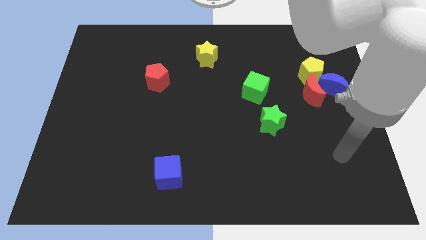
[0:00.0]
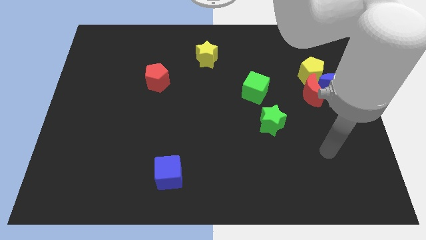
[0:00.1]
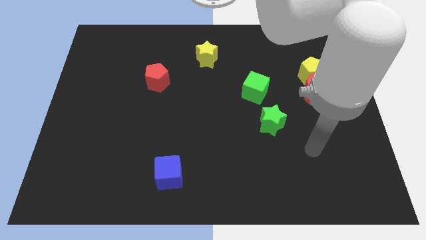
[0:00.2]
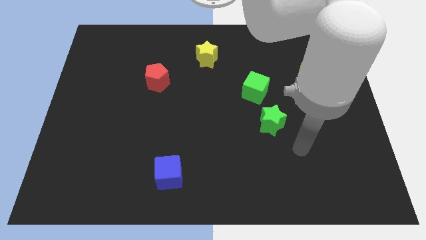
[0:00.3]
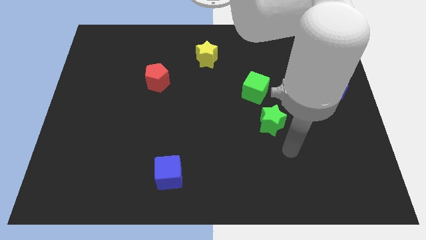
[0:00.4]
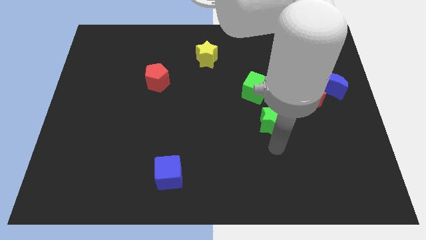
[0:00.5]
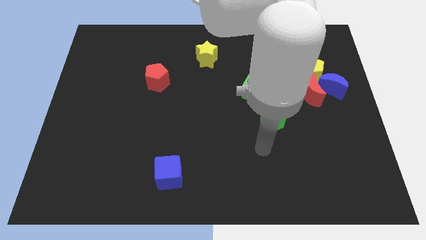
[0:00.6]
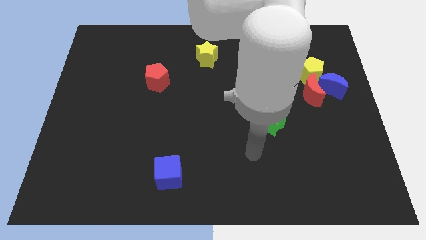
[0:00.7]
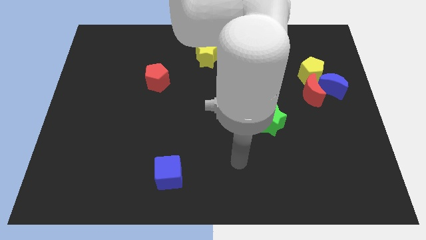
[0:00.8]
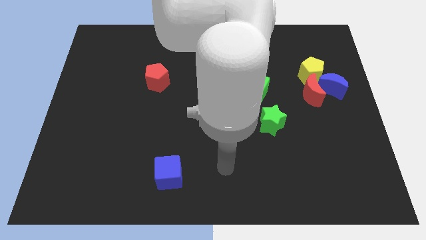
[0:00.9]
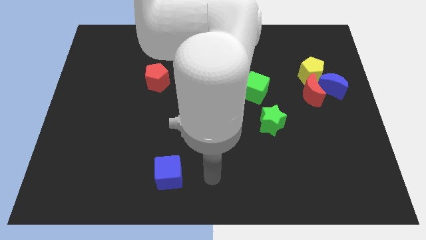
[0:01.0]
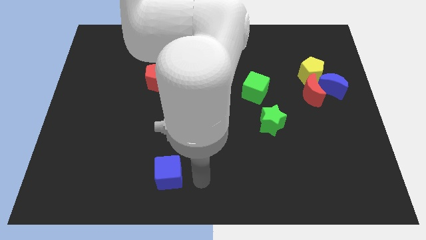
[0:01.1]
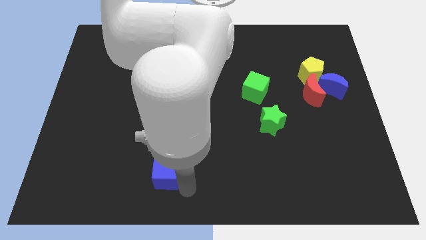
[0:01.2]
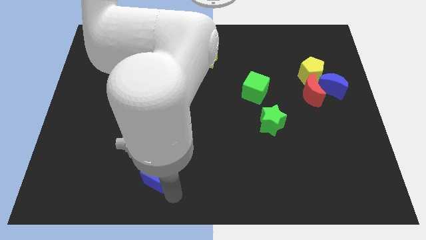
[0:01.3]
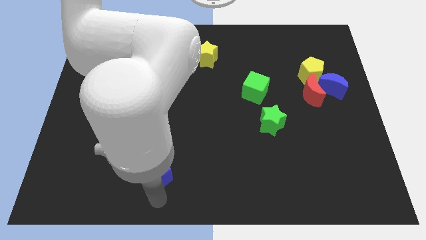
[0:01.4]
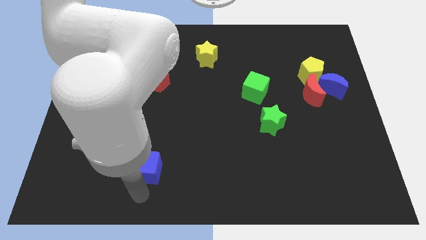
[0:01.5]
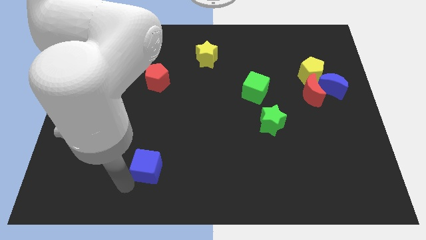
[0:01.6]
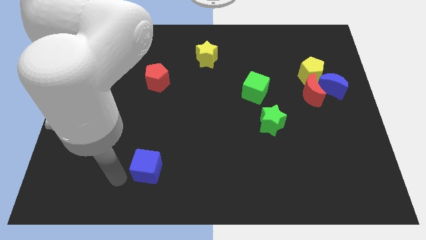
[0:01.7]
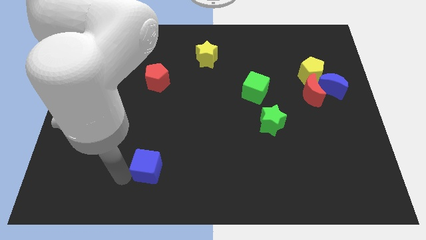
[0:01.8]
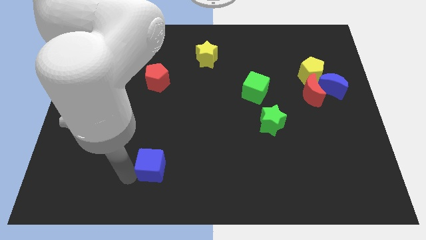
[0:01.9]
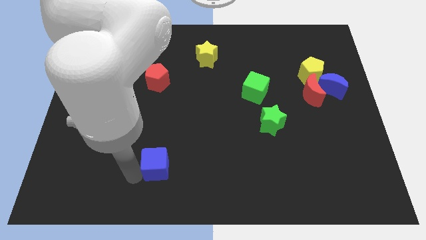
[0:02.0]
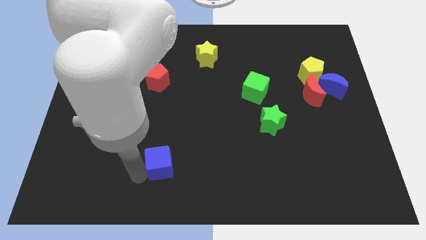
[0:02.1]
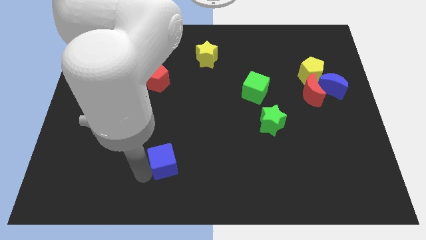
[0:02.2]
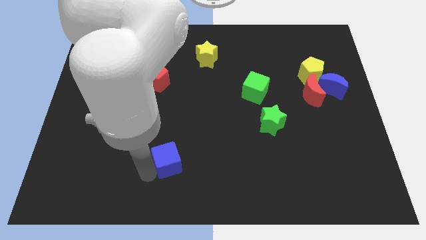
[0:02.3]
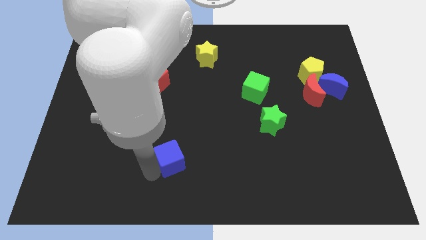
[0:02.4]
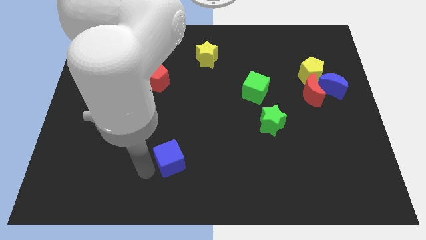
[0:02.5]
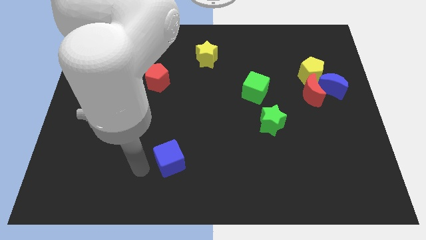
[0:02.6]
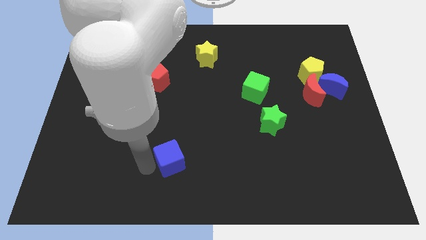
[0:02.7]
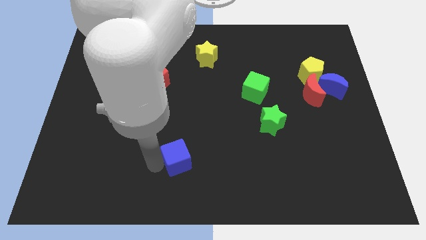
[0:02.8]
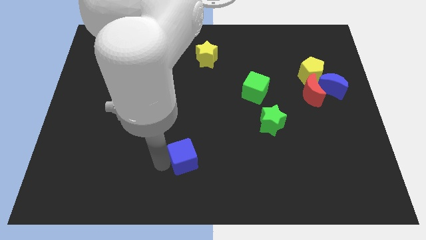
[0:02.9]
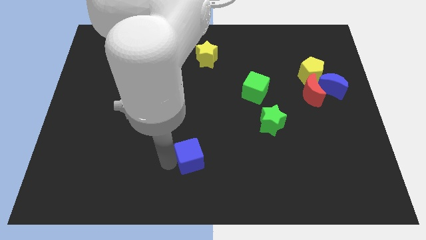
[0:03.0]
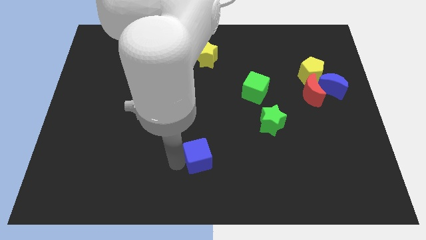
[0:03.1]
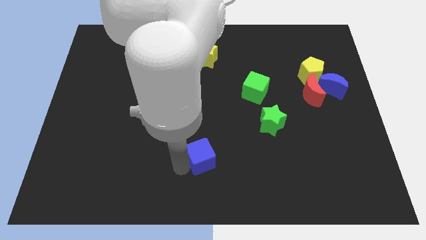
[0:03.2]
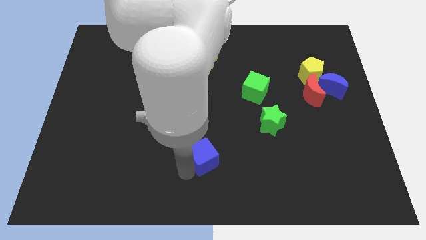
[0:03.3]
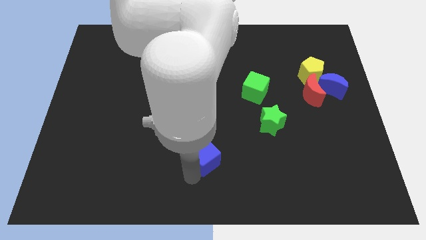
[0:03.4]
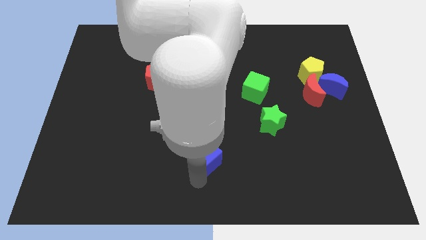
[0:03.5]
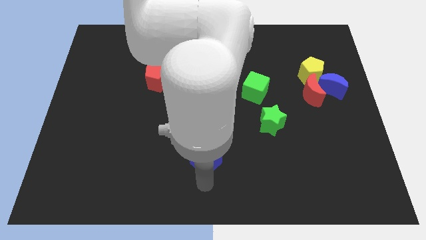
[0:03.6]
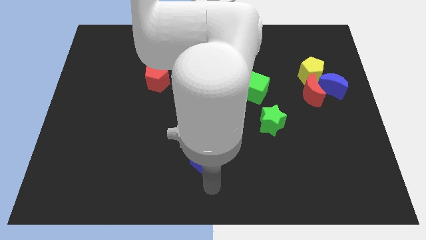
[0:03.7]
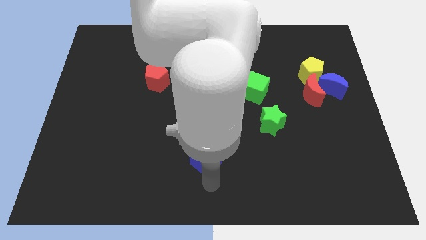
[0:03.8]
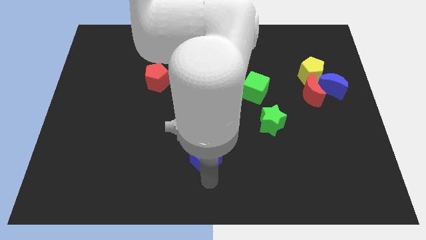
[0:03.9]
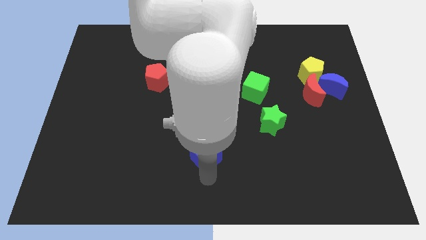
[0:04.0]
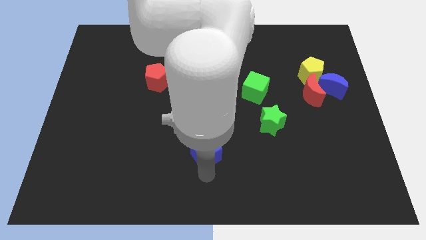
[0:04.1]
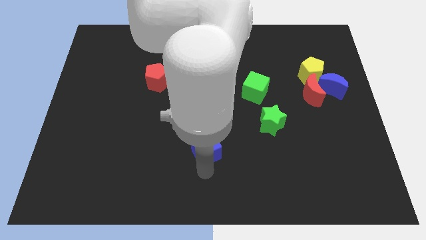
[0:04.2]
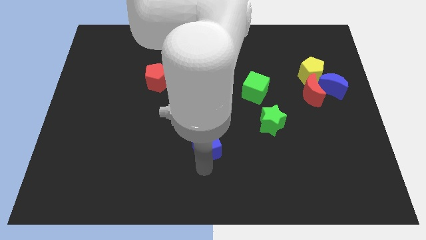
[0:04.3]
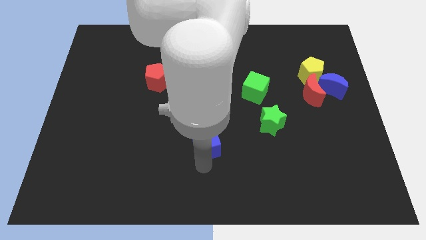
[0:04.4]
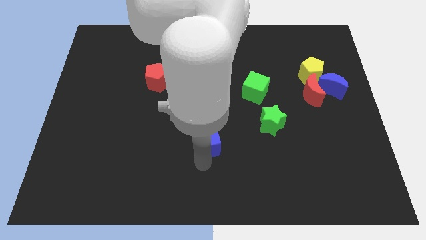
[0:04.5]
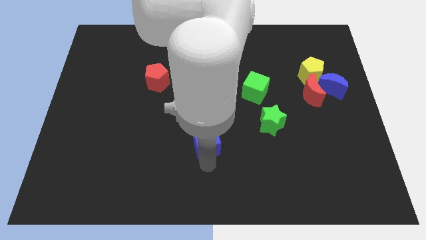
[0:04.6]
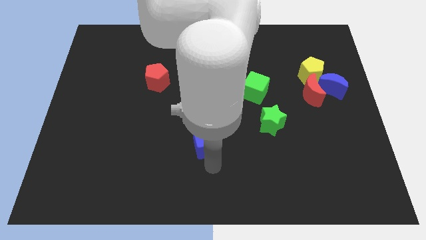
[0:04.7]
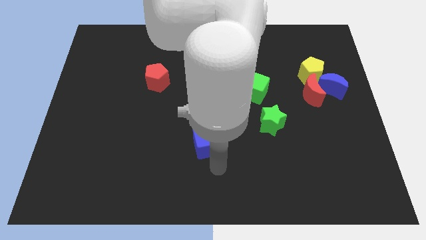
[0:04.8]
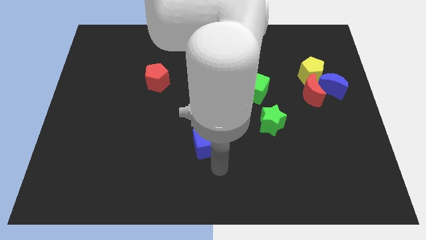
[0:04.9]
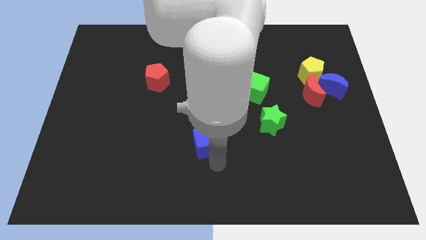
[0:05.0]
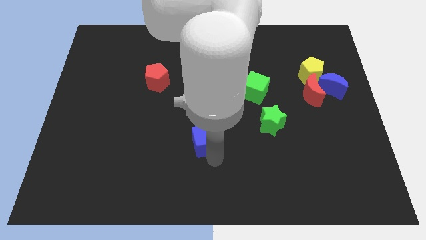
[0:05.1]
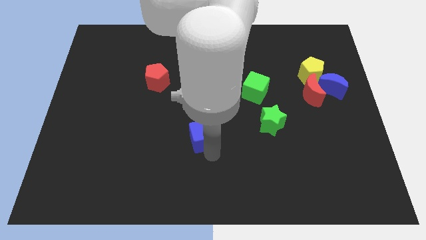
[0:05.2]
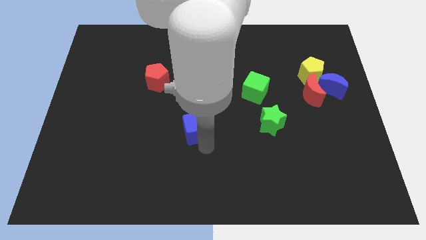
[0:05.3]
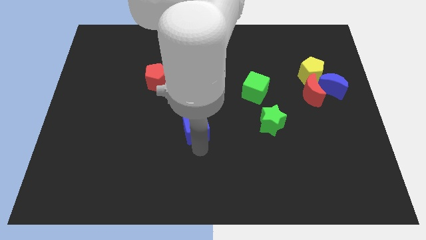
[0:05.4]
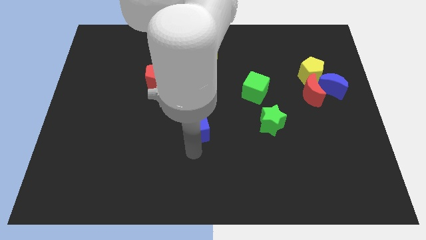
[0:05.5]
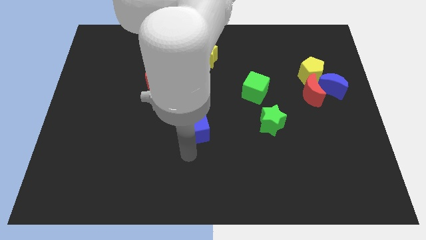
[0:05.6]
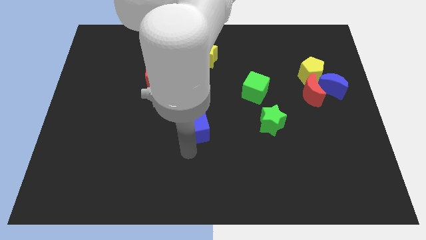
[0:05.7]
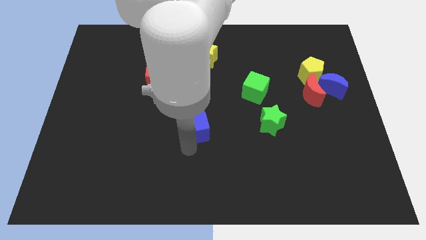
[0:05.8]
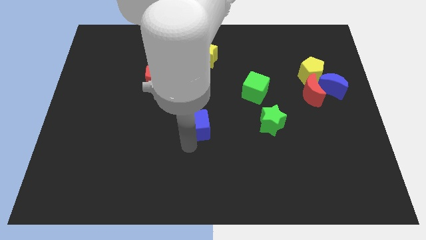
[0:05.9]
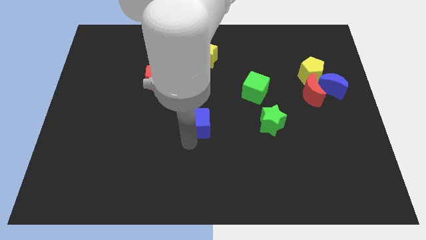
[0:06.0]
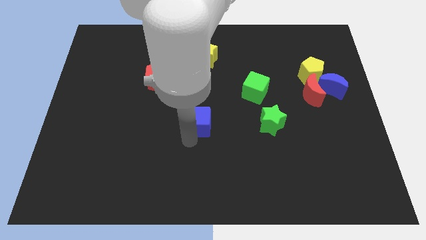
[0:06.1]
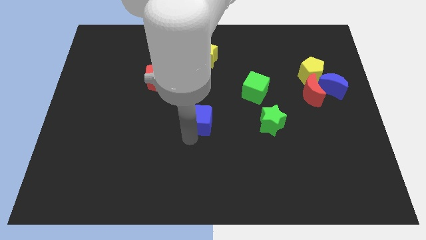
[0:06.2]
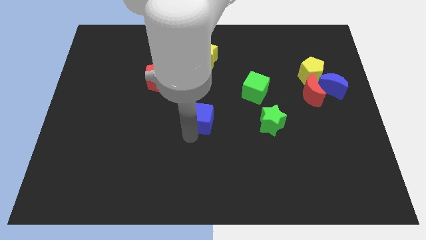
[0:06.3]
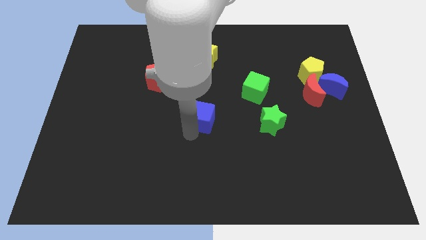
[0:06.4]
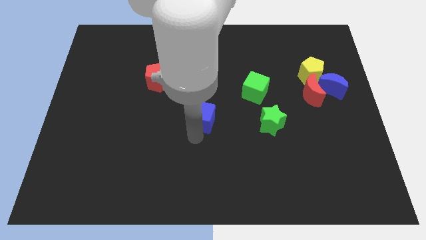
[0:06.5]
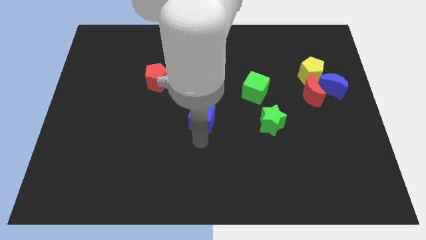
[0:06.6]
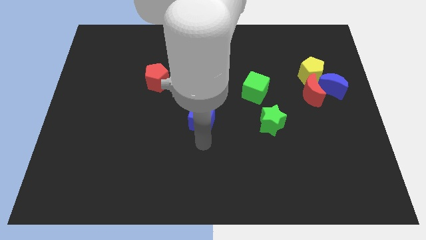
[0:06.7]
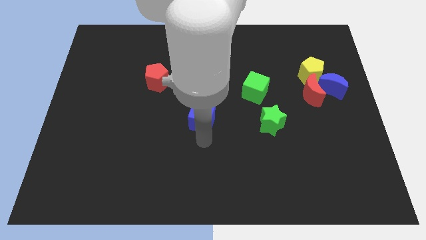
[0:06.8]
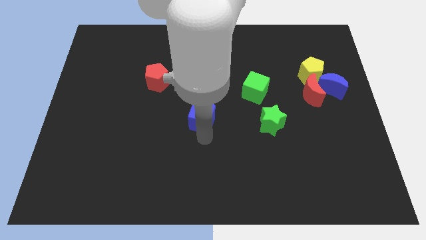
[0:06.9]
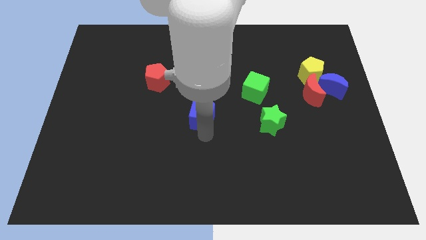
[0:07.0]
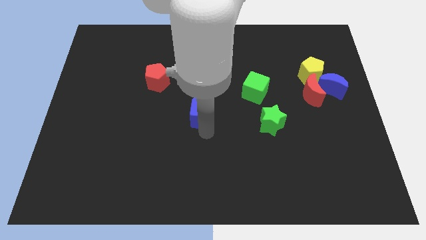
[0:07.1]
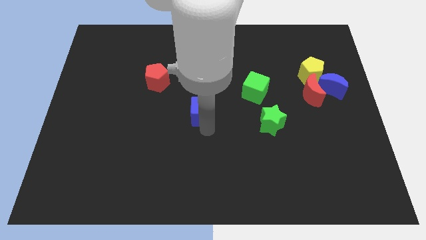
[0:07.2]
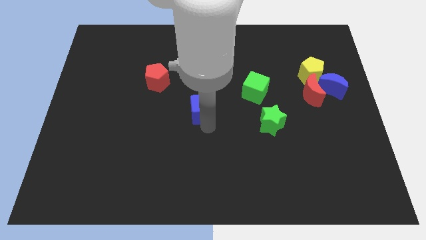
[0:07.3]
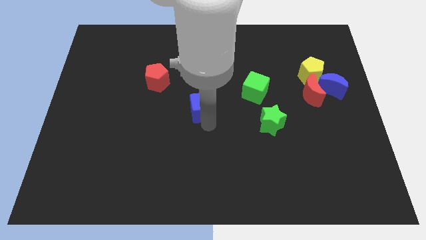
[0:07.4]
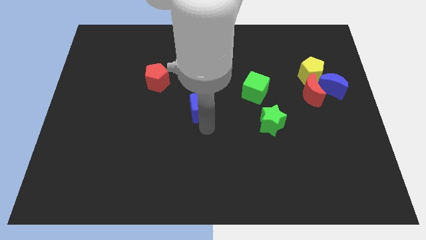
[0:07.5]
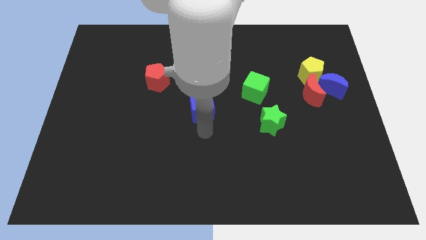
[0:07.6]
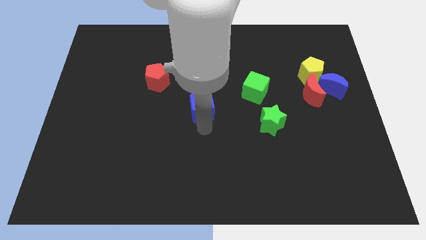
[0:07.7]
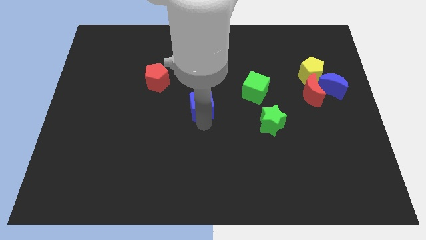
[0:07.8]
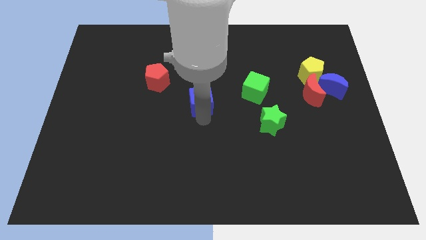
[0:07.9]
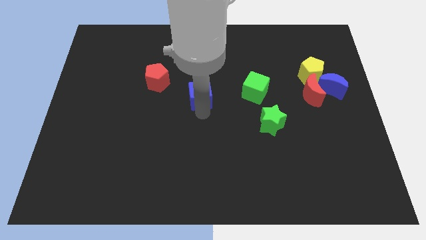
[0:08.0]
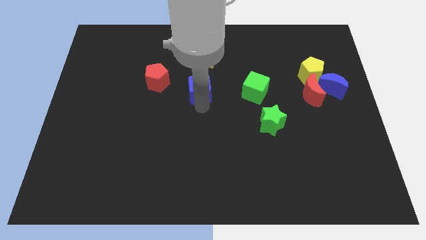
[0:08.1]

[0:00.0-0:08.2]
push the blue cube to the right of the red pentagon
